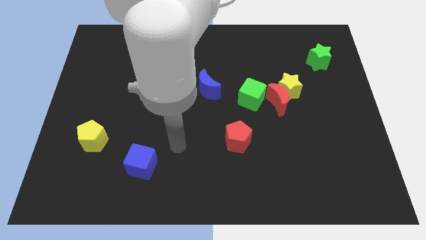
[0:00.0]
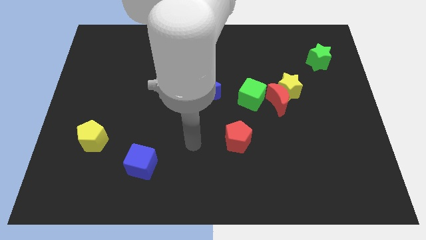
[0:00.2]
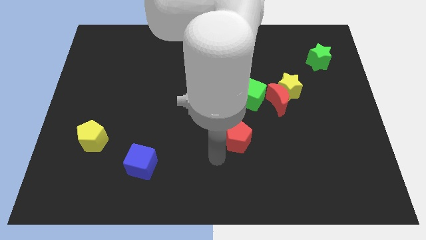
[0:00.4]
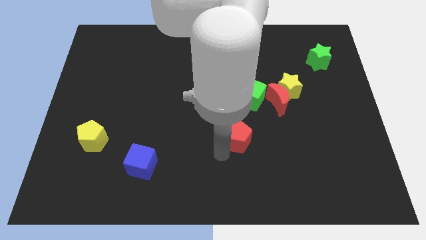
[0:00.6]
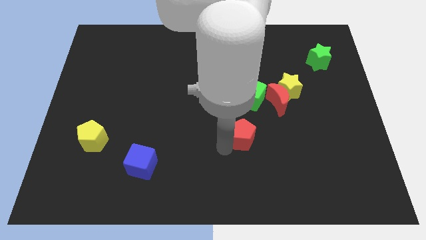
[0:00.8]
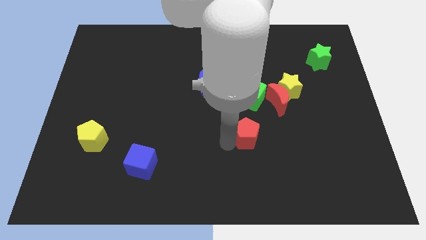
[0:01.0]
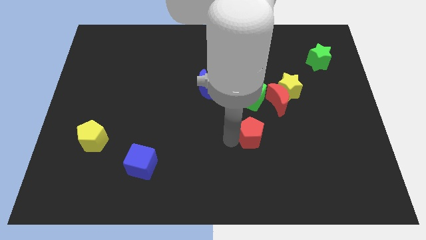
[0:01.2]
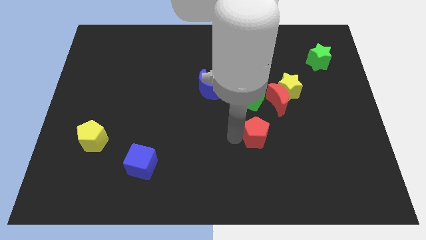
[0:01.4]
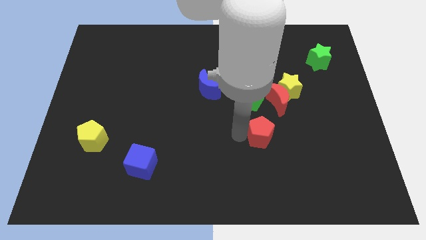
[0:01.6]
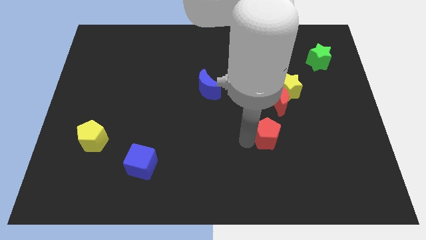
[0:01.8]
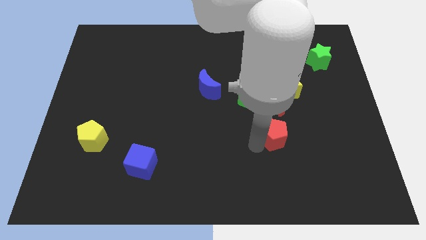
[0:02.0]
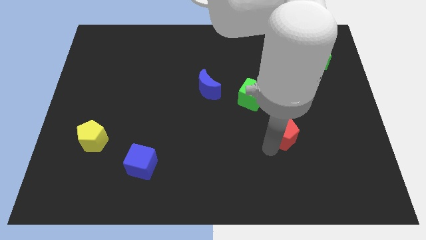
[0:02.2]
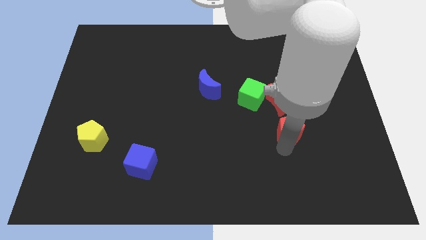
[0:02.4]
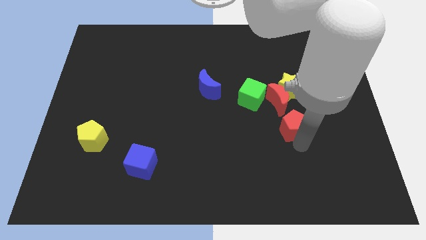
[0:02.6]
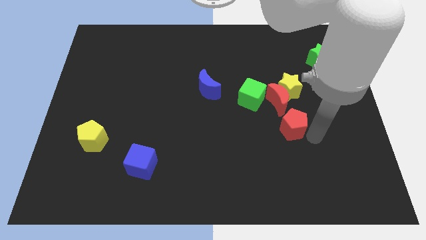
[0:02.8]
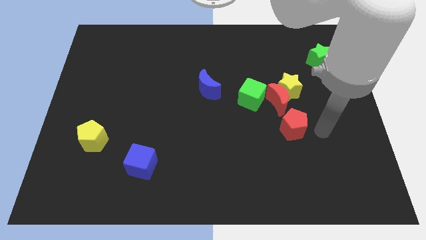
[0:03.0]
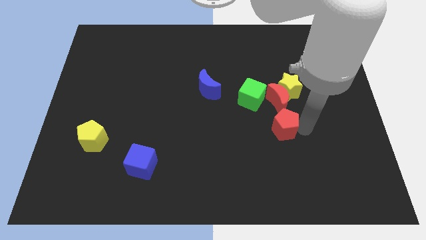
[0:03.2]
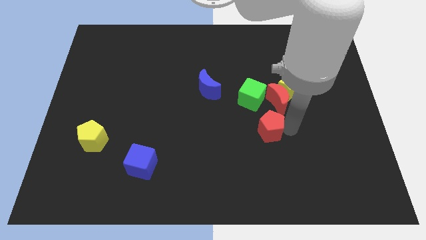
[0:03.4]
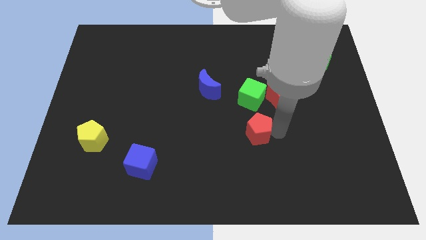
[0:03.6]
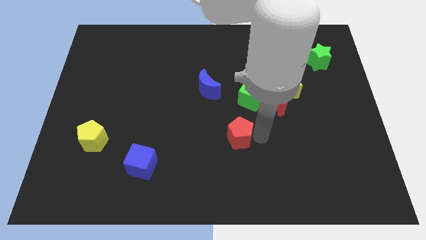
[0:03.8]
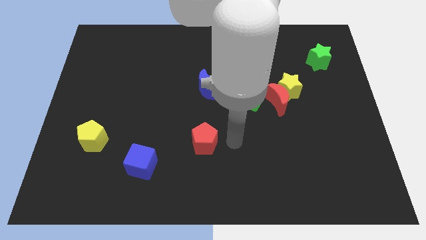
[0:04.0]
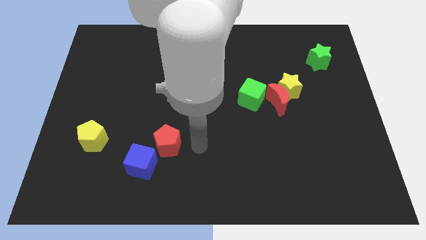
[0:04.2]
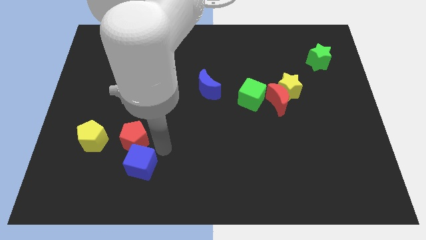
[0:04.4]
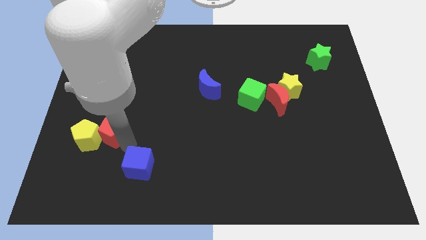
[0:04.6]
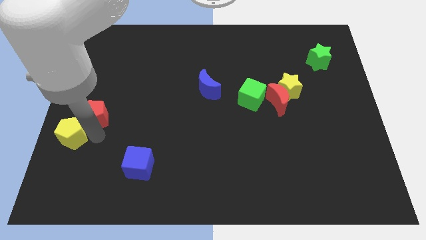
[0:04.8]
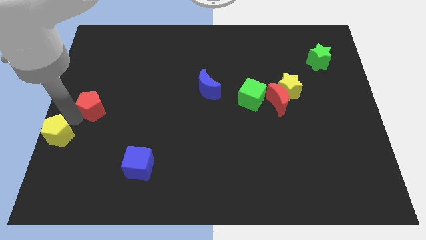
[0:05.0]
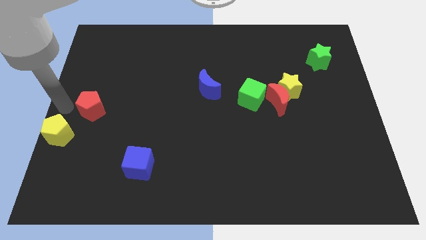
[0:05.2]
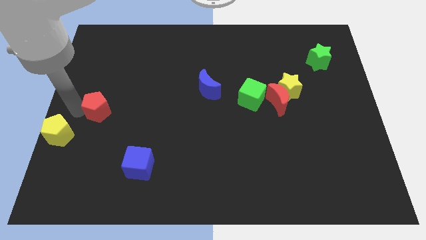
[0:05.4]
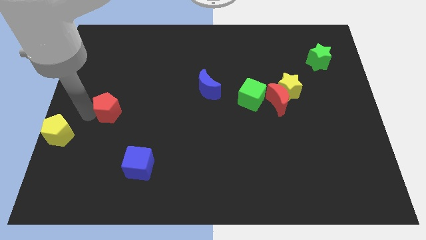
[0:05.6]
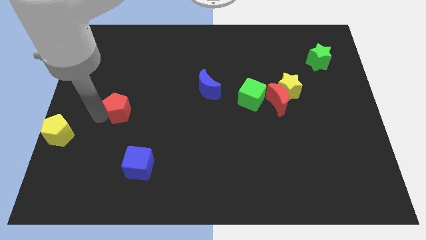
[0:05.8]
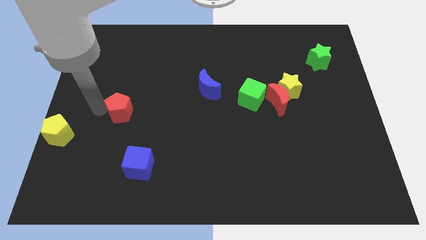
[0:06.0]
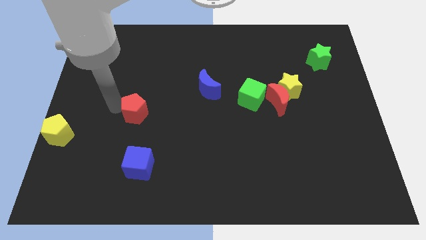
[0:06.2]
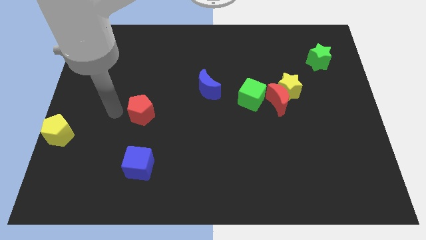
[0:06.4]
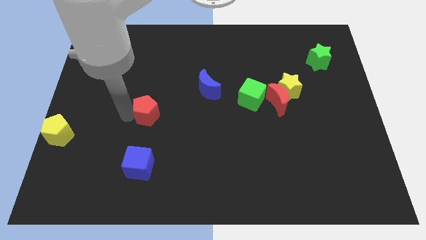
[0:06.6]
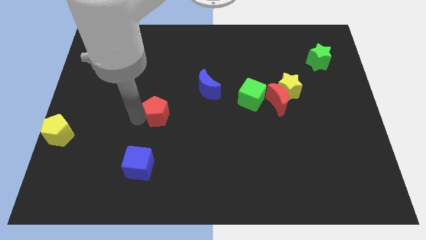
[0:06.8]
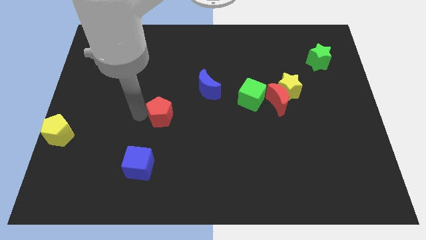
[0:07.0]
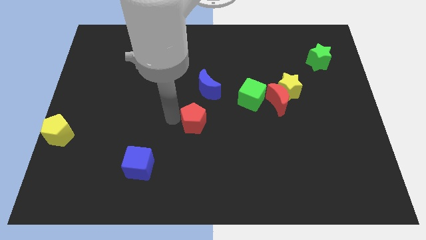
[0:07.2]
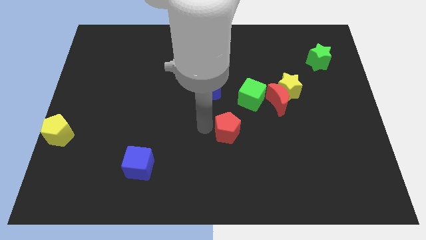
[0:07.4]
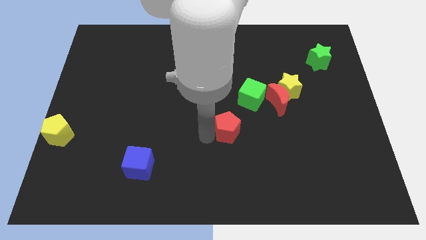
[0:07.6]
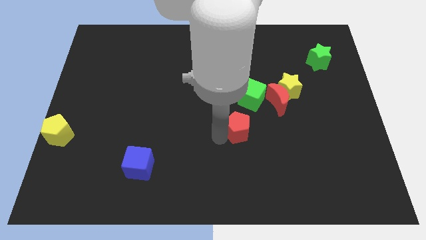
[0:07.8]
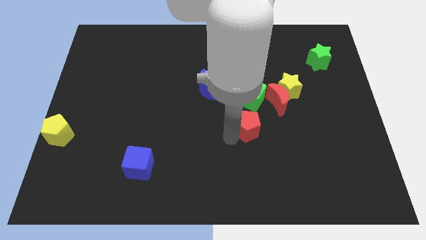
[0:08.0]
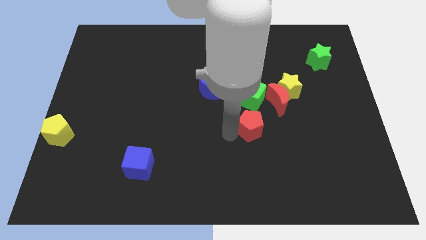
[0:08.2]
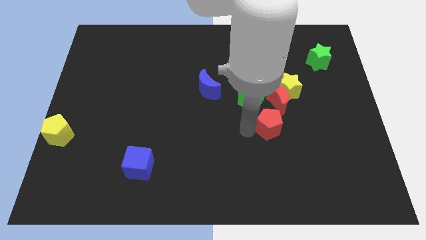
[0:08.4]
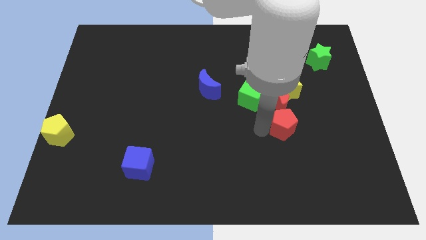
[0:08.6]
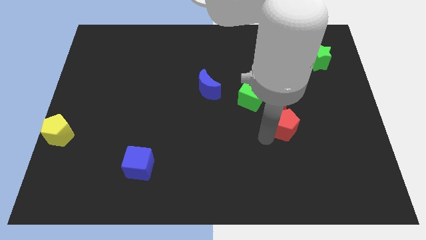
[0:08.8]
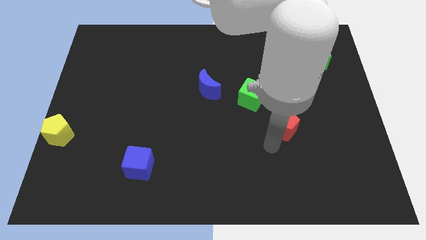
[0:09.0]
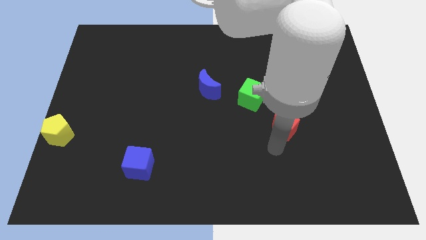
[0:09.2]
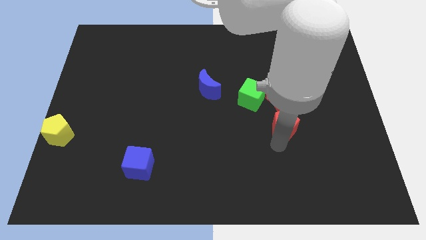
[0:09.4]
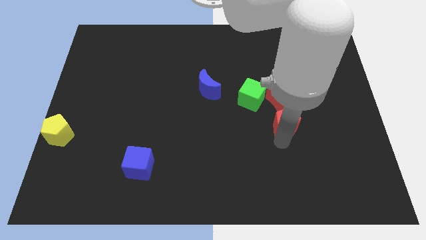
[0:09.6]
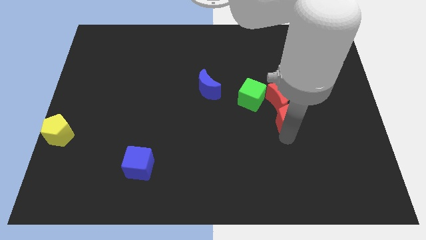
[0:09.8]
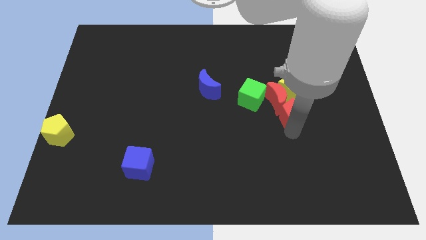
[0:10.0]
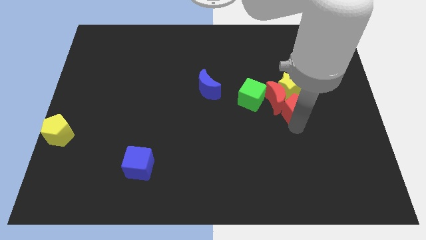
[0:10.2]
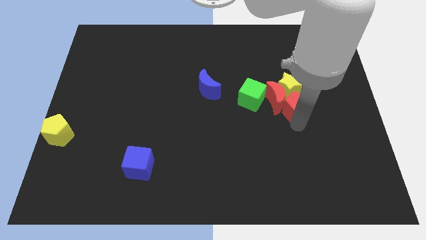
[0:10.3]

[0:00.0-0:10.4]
move the red pentagon close to the yellow star

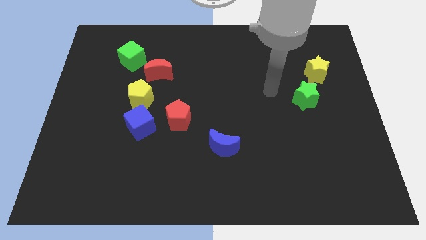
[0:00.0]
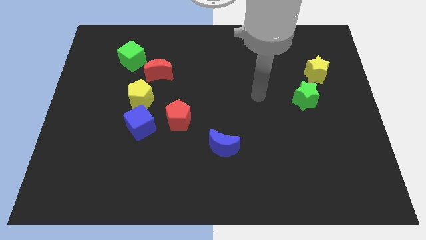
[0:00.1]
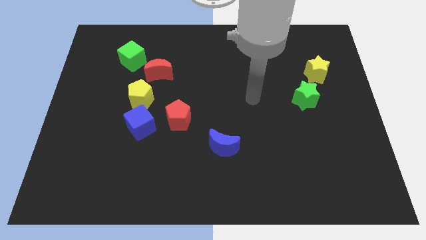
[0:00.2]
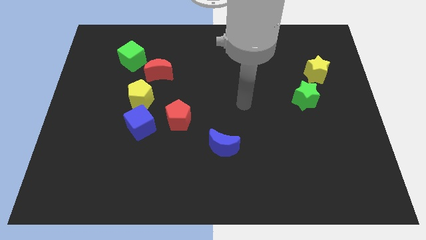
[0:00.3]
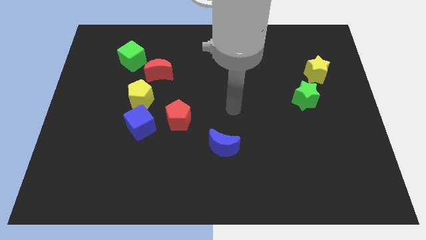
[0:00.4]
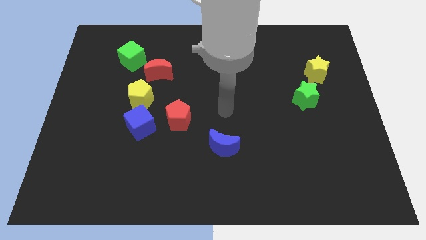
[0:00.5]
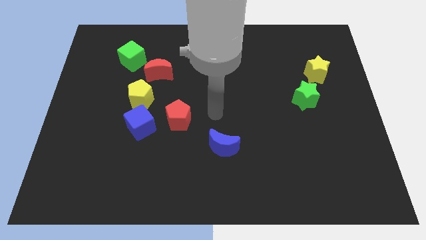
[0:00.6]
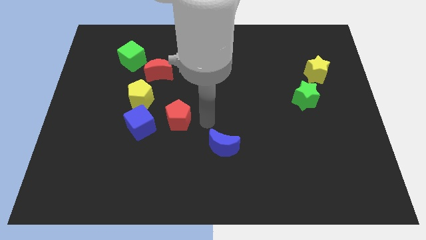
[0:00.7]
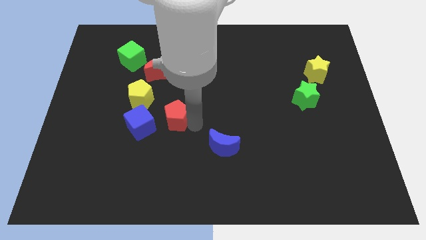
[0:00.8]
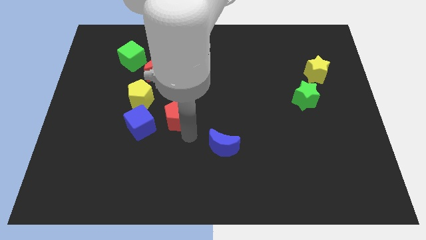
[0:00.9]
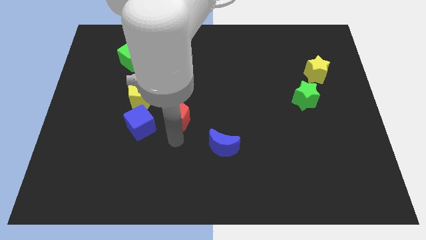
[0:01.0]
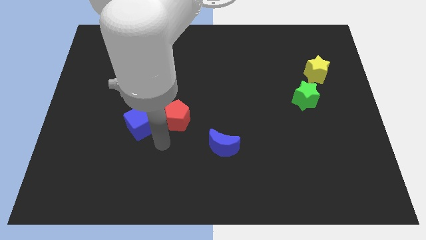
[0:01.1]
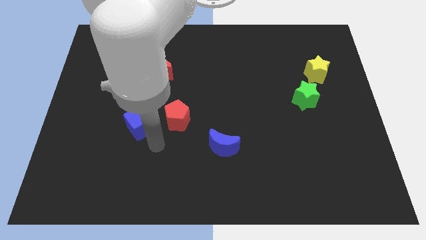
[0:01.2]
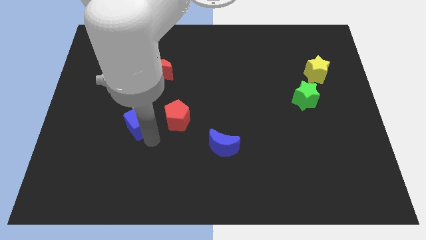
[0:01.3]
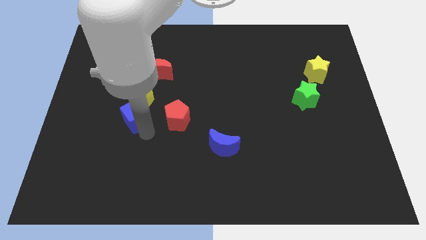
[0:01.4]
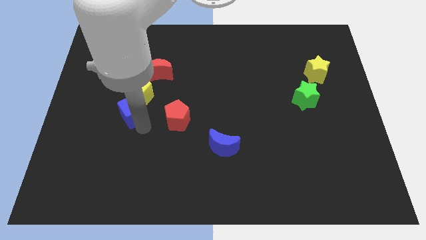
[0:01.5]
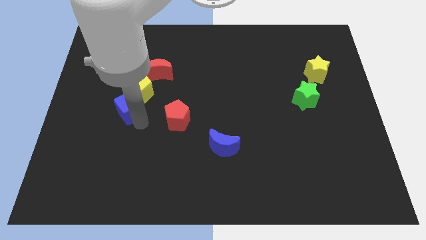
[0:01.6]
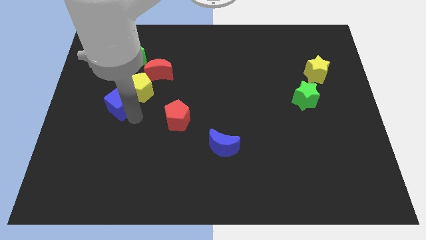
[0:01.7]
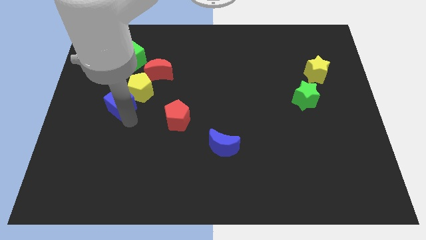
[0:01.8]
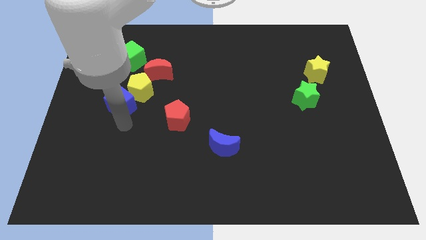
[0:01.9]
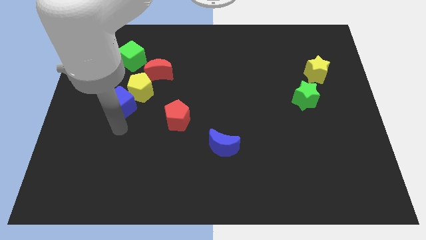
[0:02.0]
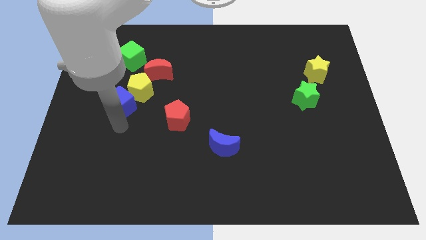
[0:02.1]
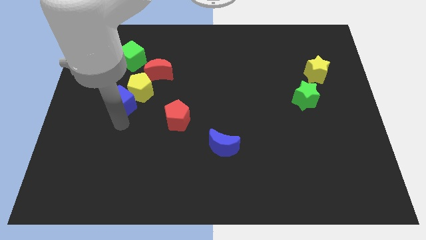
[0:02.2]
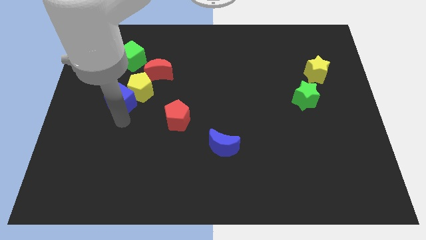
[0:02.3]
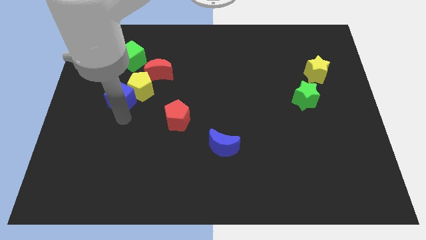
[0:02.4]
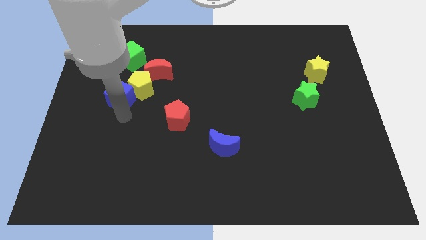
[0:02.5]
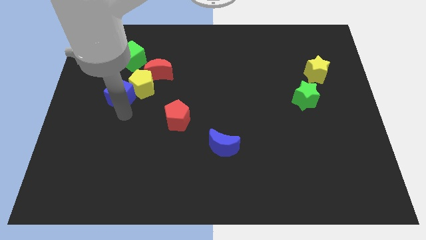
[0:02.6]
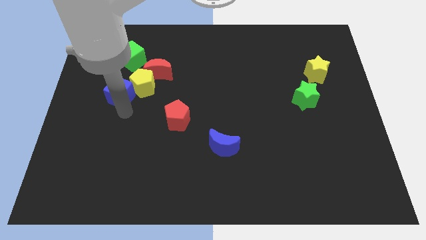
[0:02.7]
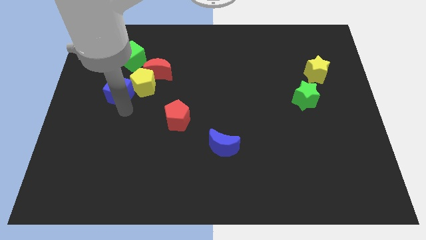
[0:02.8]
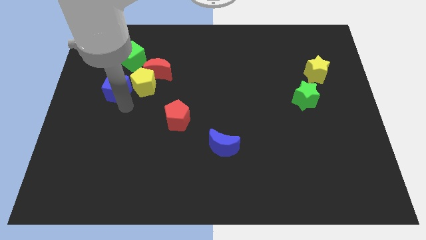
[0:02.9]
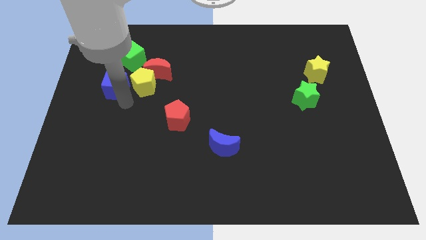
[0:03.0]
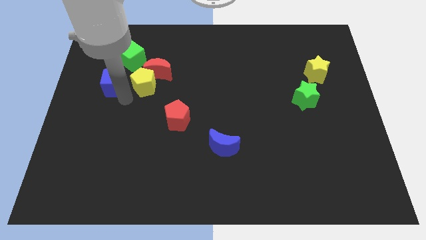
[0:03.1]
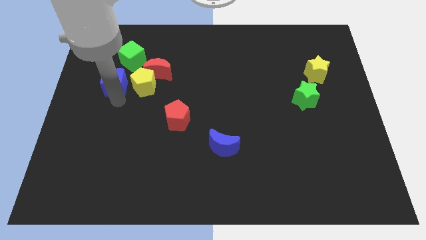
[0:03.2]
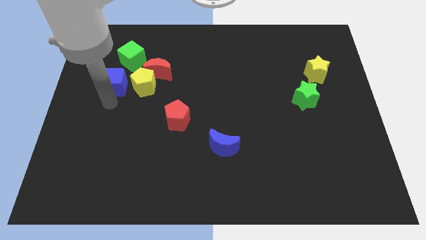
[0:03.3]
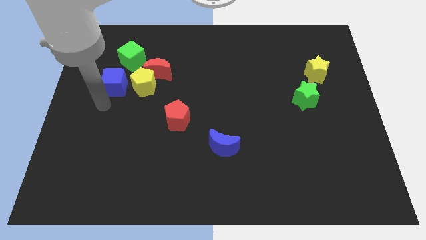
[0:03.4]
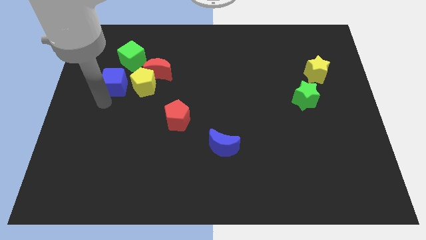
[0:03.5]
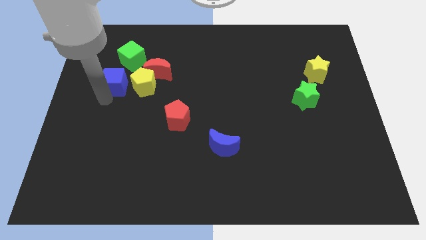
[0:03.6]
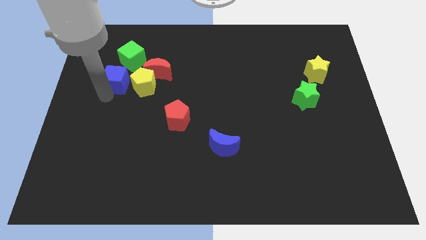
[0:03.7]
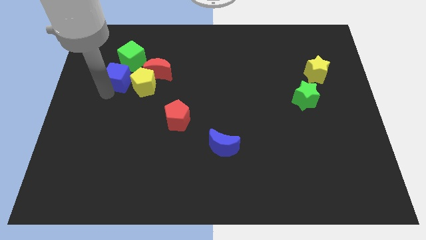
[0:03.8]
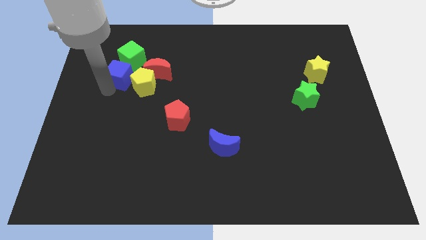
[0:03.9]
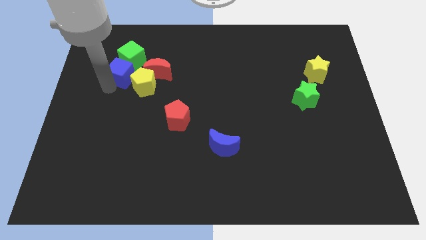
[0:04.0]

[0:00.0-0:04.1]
move the blue cube towards the green cube
